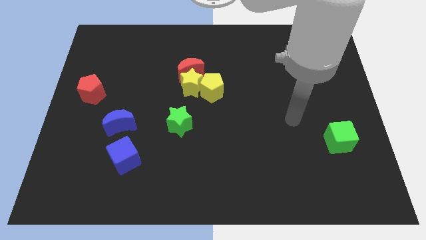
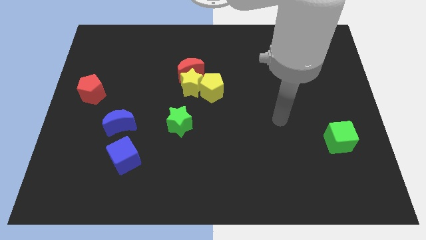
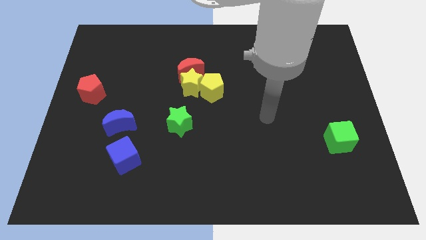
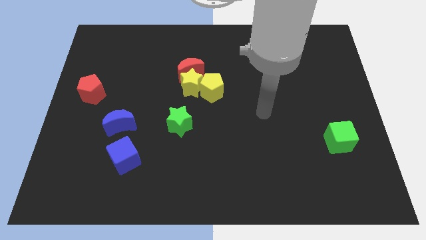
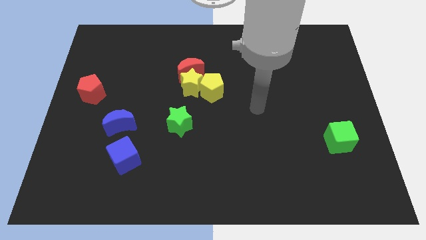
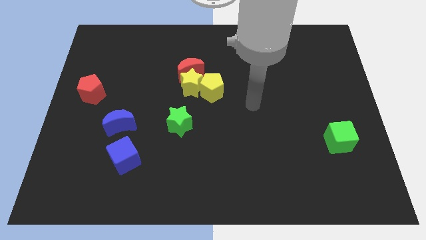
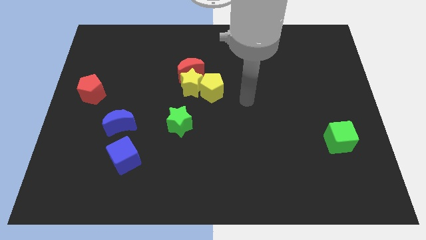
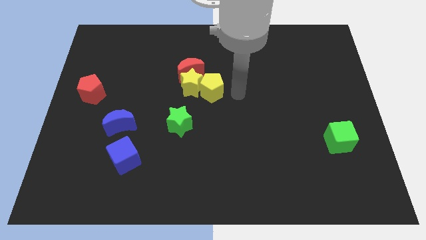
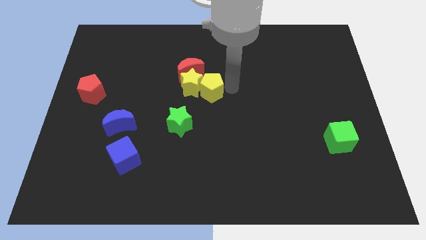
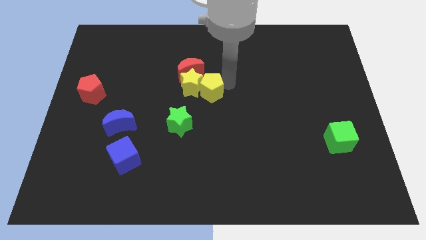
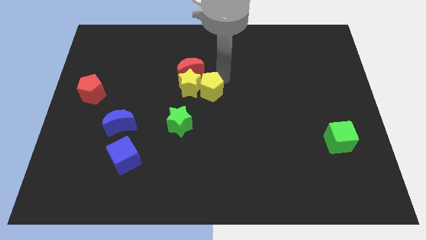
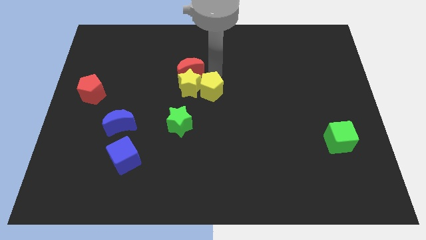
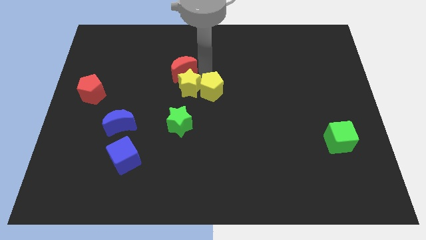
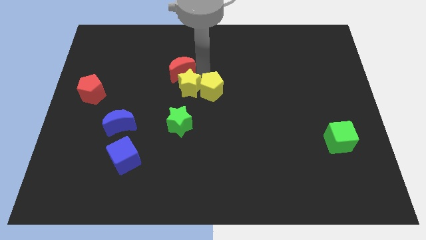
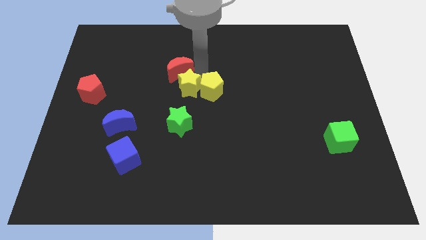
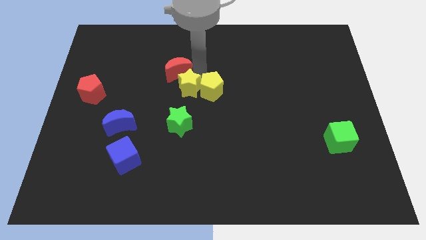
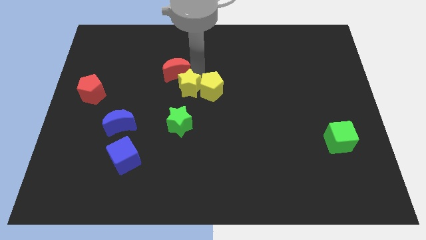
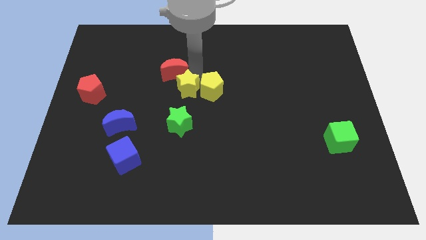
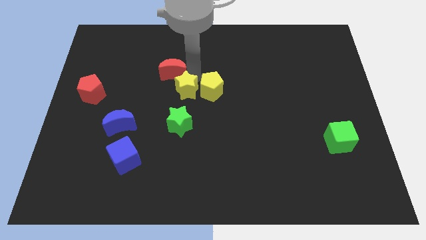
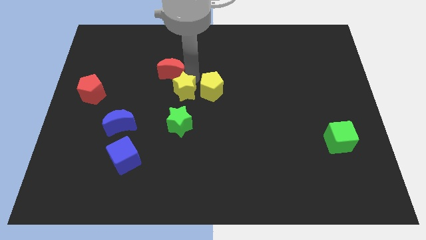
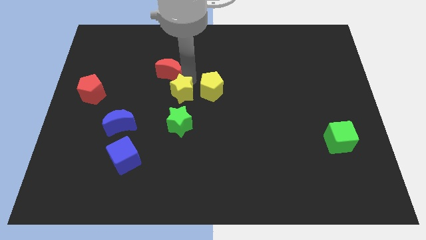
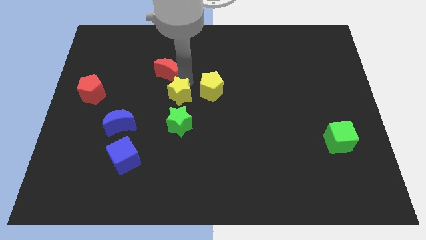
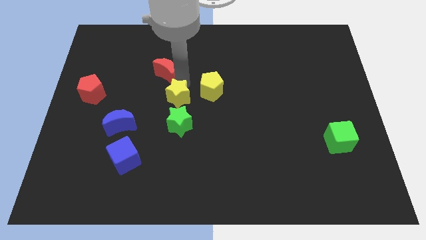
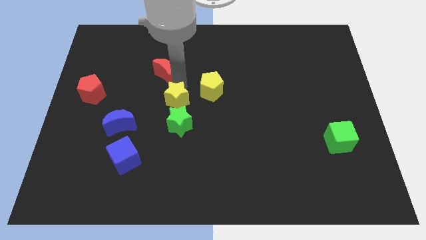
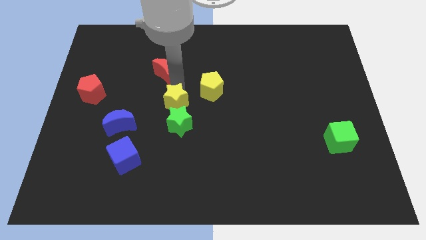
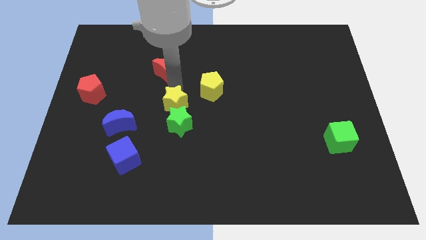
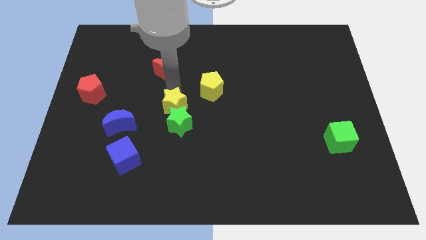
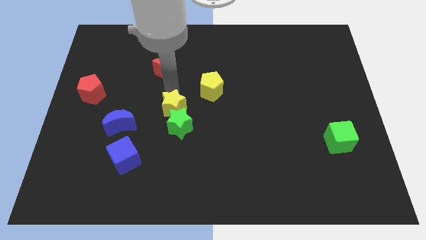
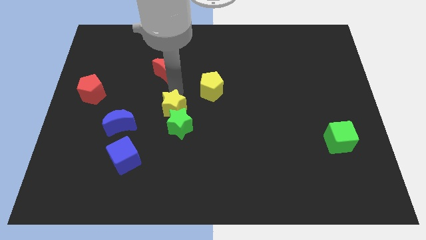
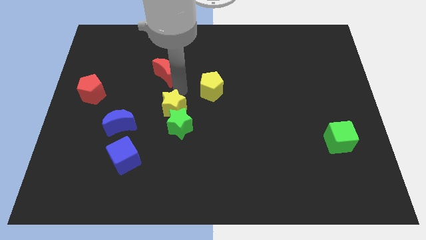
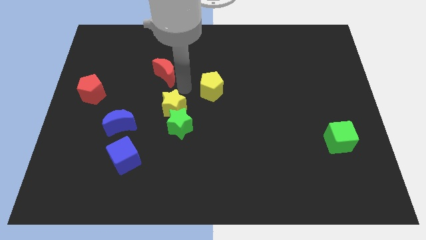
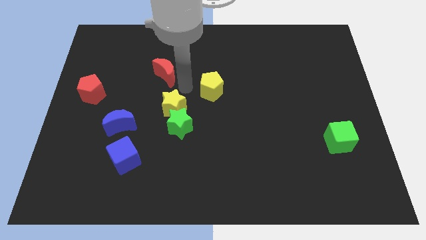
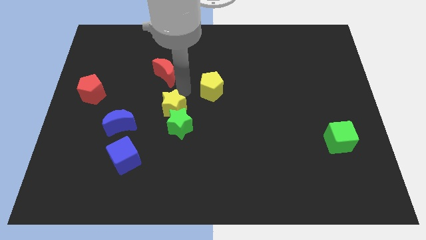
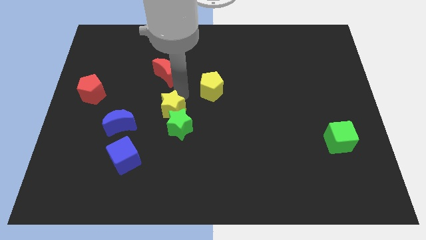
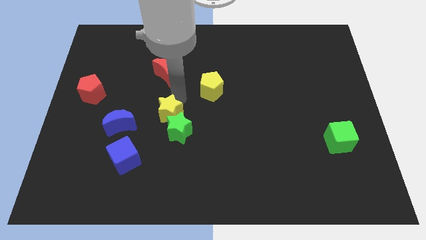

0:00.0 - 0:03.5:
separate the yellow star from the red moon and yellow pentagon

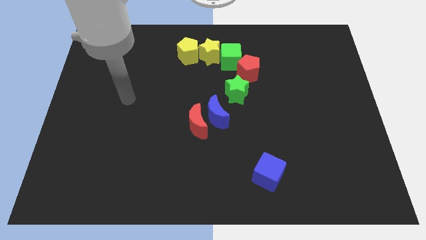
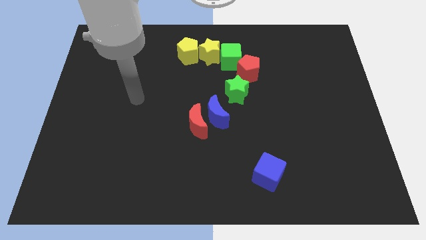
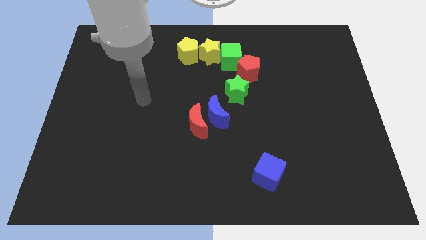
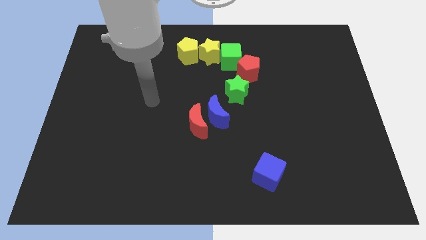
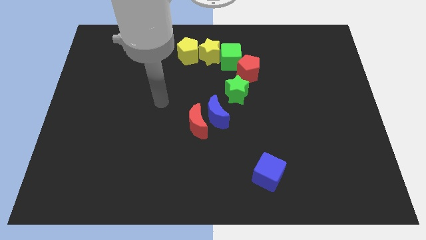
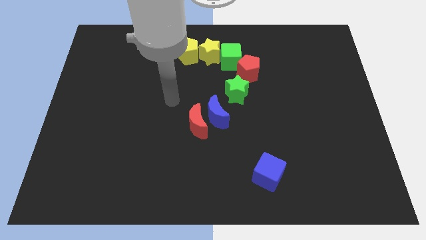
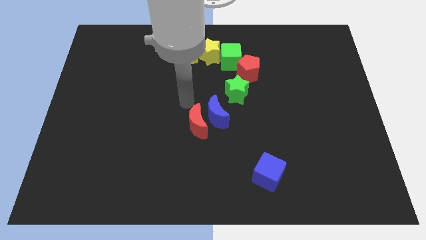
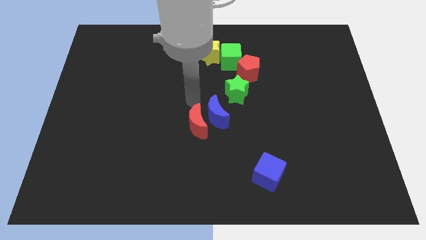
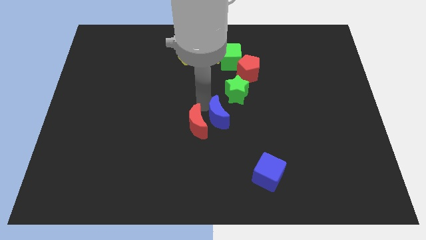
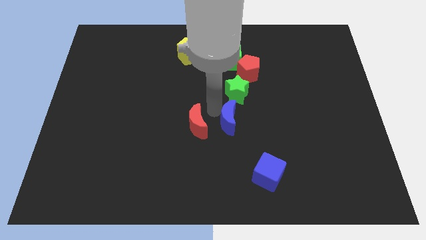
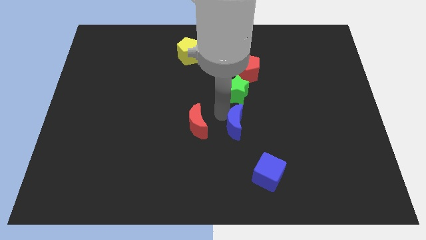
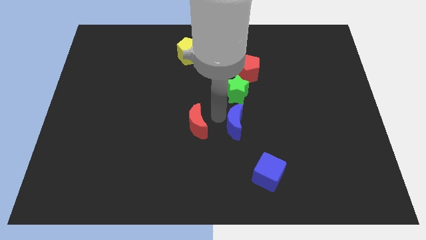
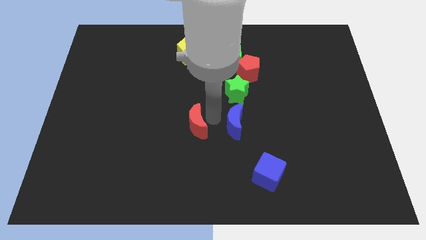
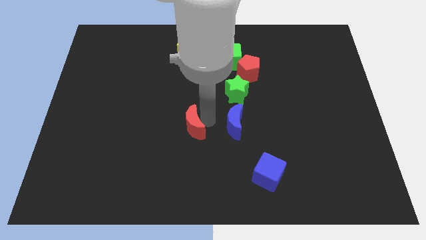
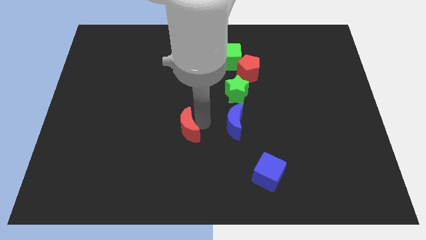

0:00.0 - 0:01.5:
move the red moon away from the blue moon

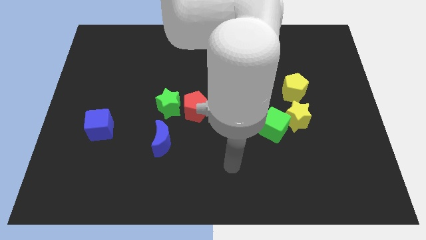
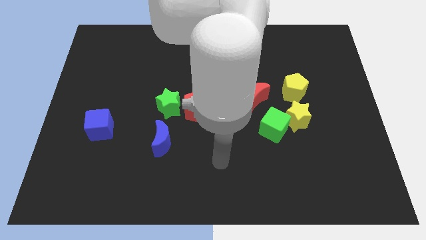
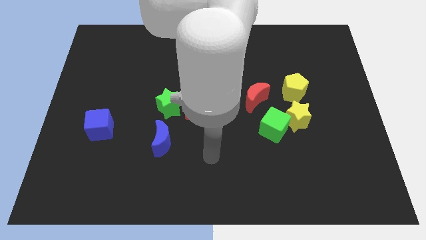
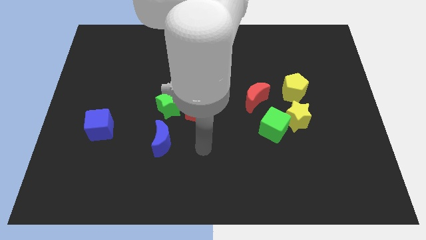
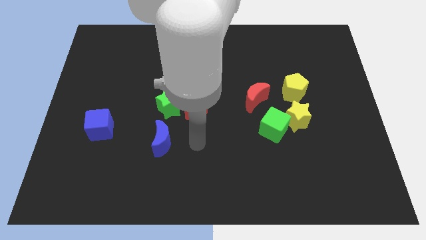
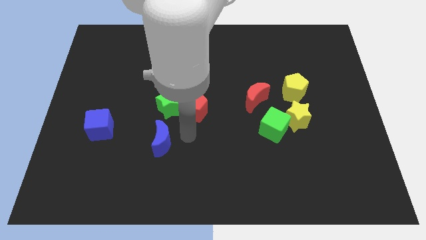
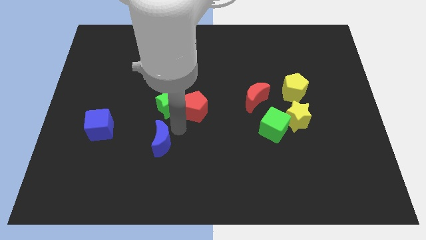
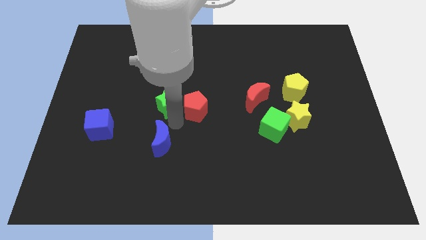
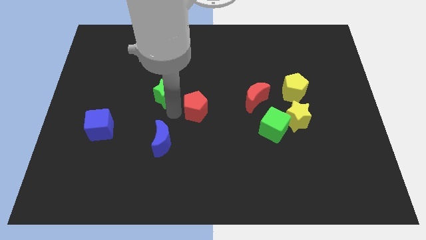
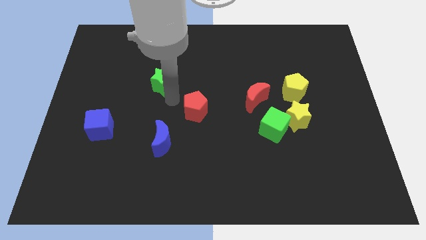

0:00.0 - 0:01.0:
separate the red pentagon from the green star

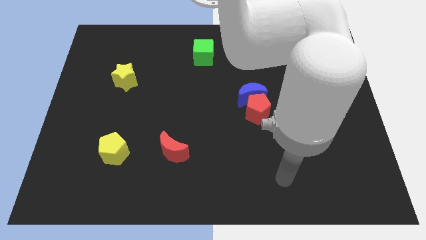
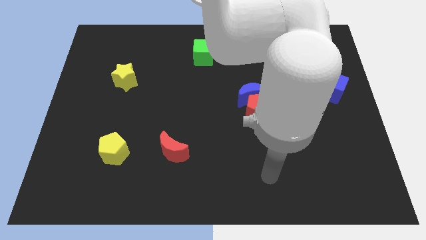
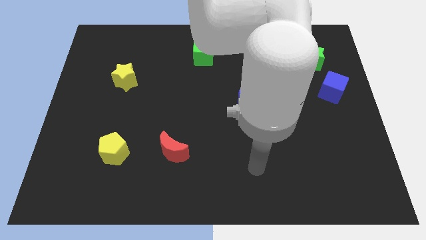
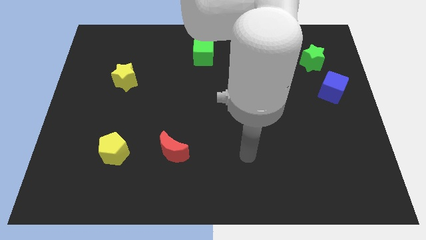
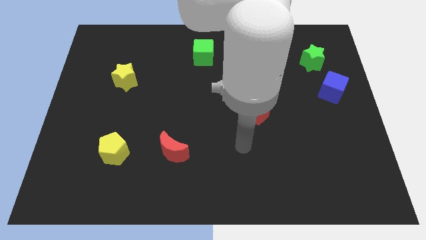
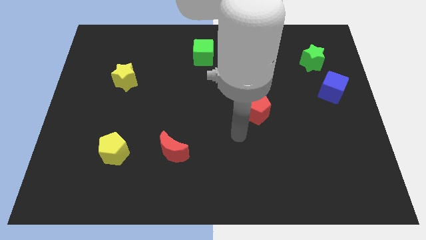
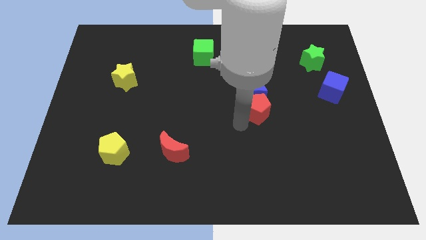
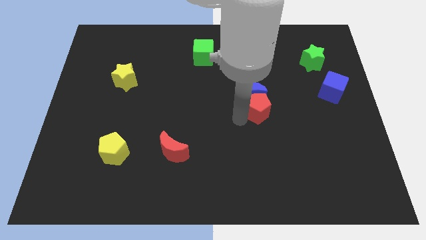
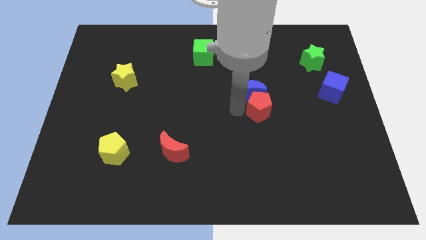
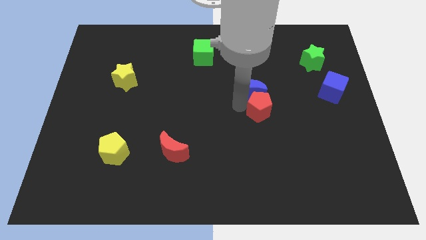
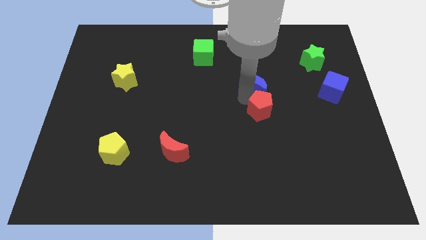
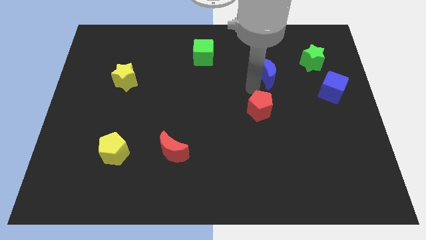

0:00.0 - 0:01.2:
pull the red pentagon apart from the blue moon

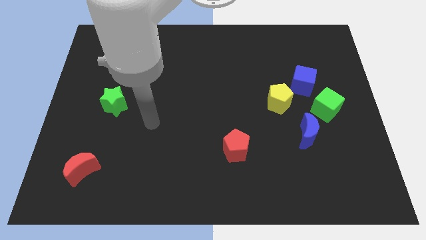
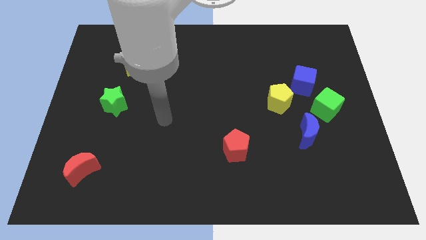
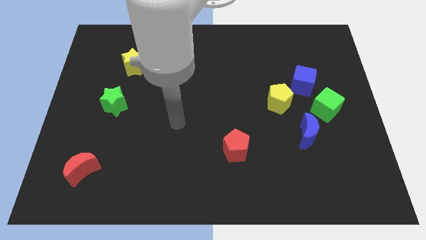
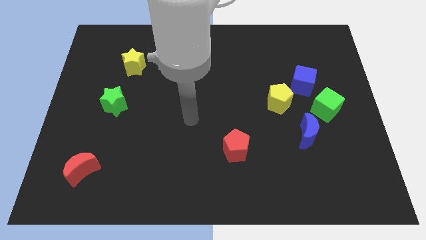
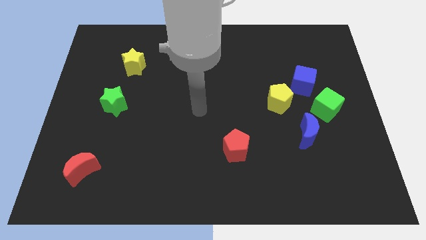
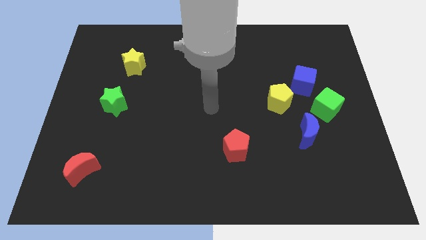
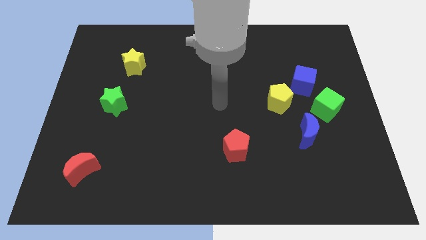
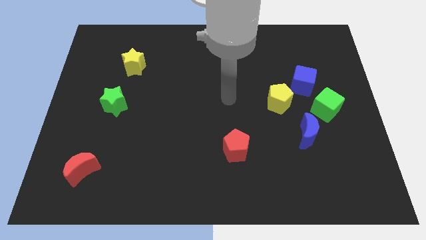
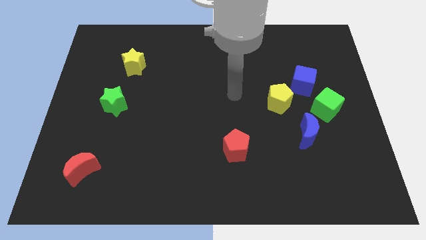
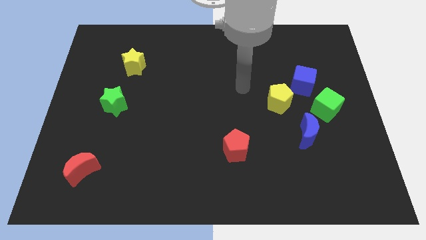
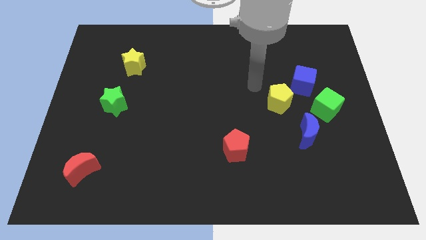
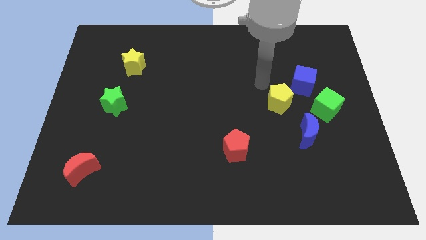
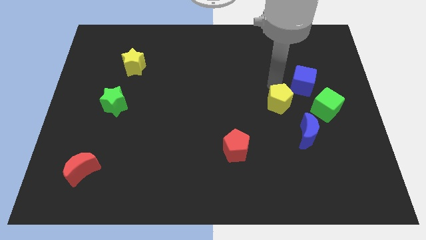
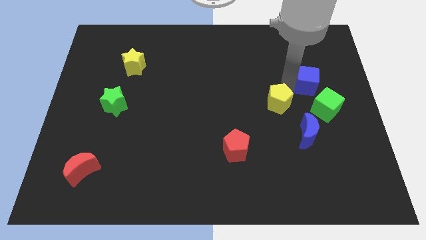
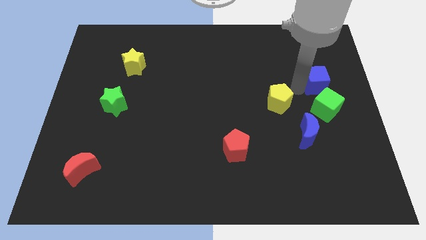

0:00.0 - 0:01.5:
move the yellow pentagon away from the blue cube

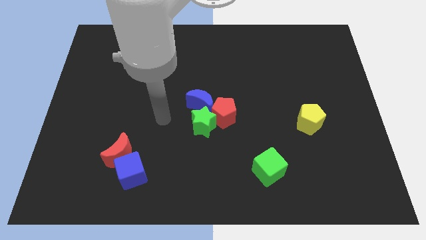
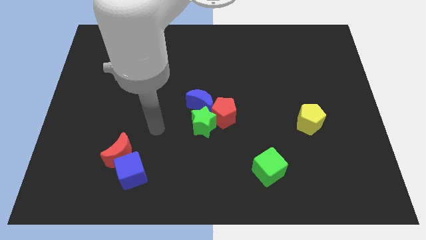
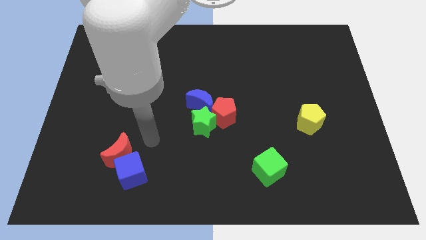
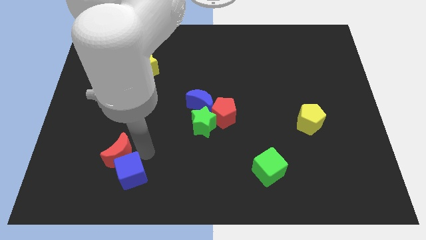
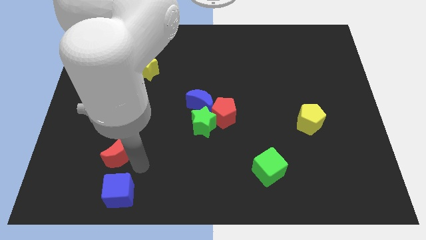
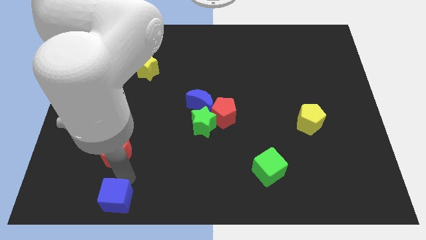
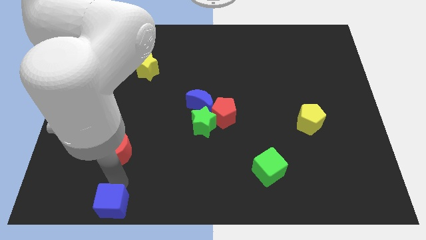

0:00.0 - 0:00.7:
separate the red moon from the blue cube
